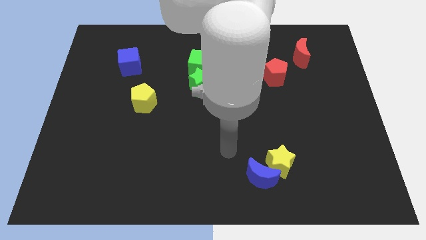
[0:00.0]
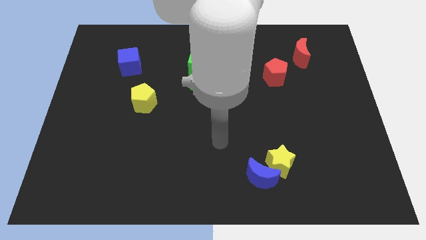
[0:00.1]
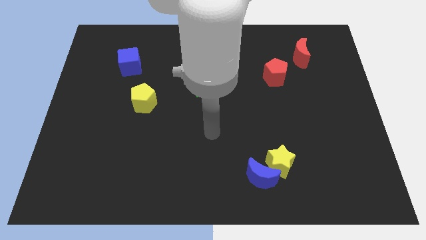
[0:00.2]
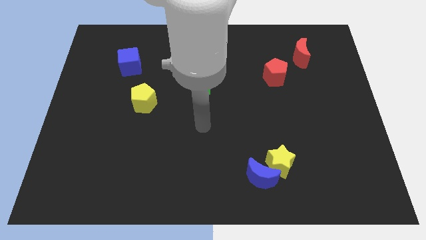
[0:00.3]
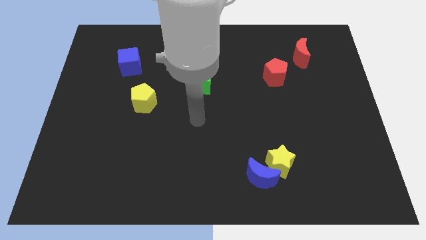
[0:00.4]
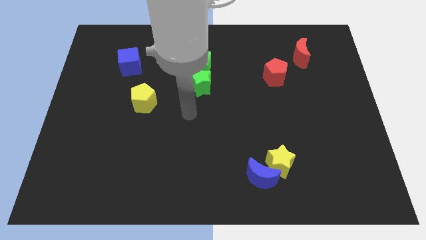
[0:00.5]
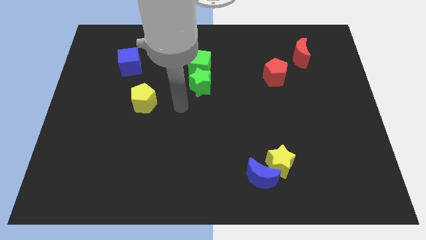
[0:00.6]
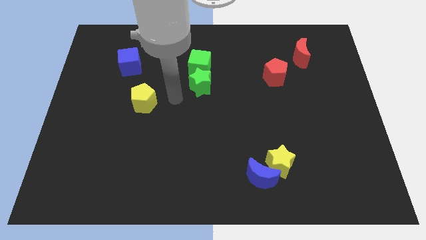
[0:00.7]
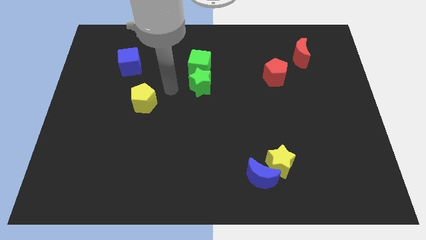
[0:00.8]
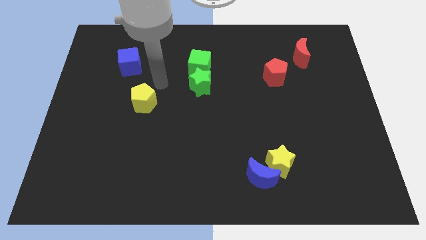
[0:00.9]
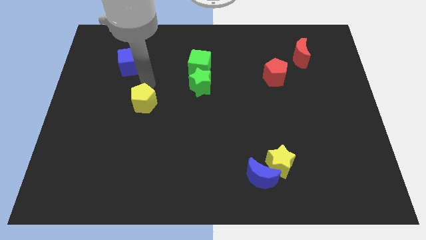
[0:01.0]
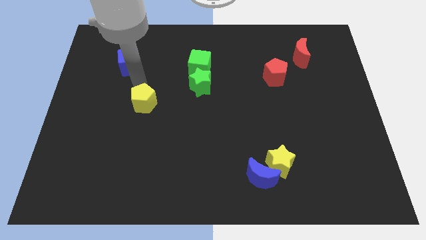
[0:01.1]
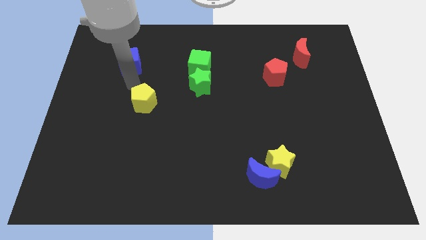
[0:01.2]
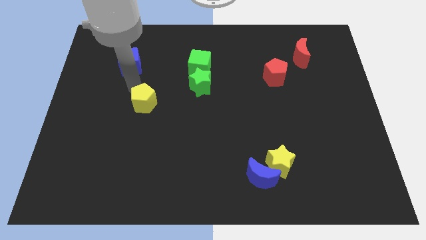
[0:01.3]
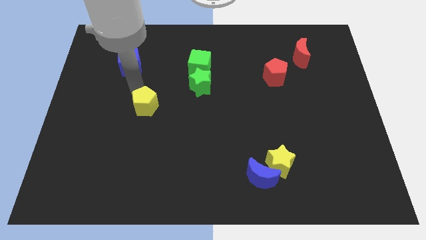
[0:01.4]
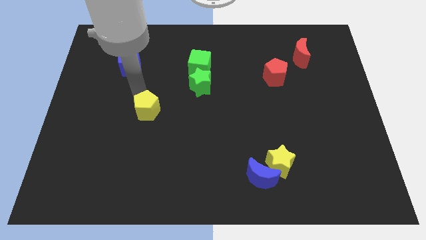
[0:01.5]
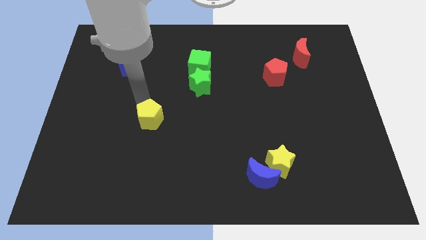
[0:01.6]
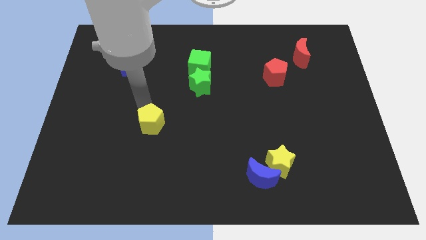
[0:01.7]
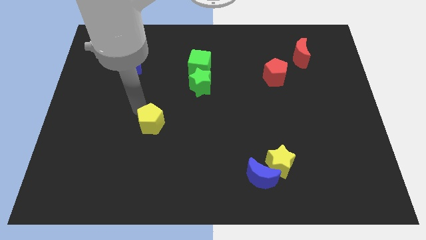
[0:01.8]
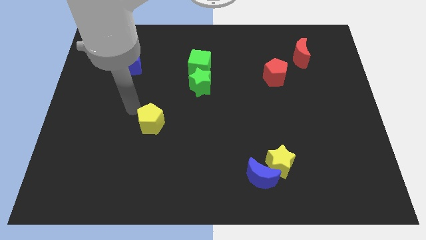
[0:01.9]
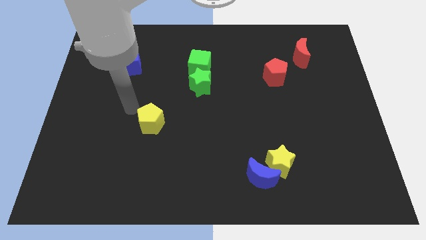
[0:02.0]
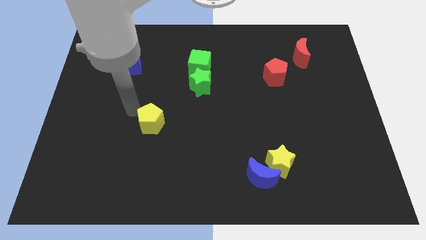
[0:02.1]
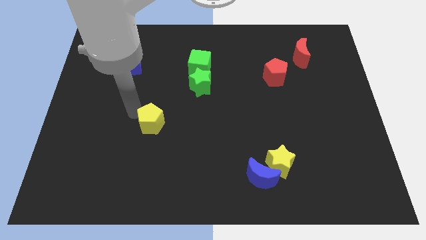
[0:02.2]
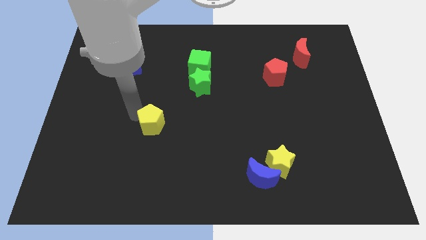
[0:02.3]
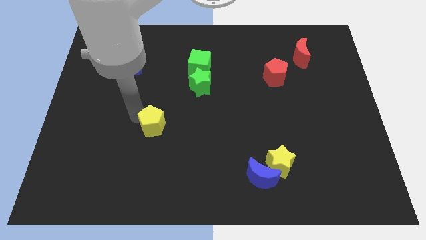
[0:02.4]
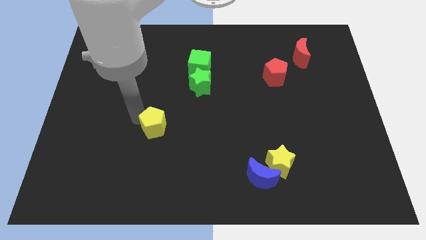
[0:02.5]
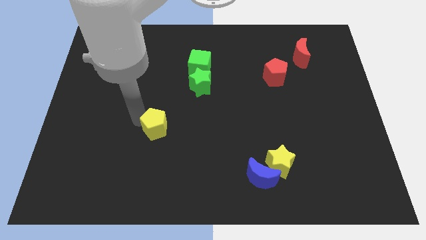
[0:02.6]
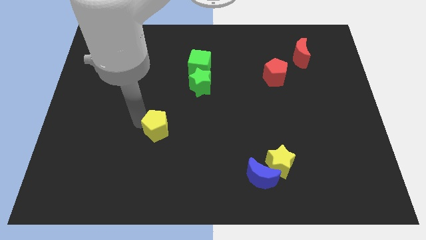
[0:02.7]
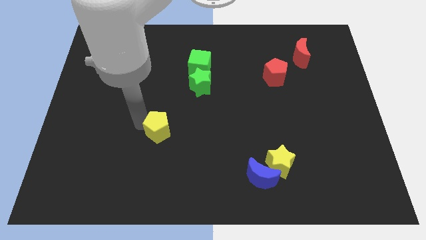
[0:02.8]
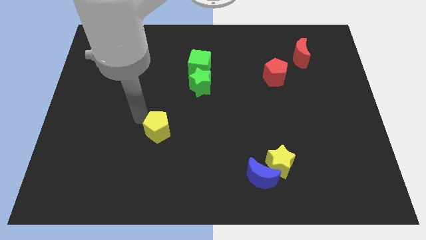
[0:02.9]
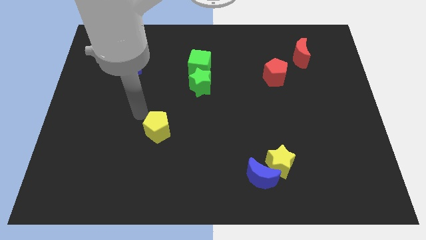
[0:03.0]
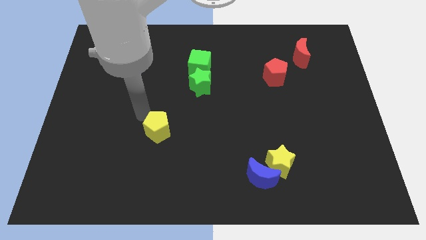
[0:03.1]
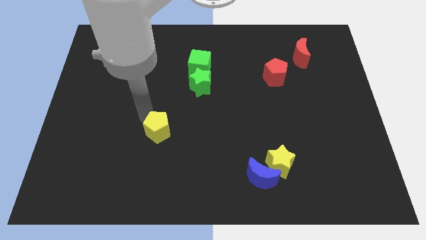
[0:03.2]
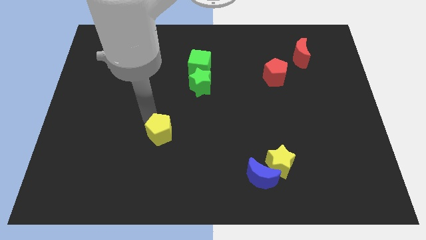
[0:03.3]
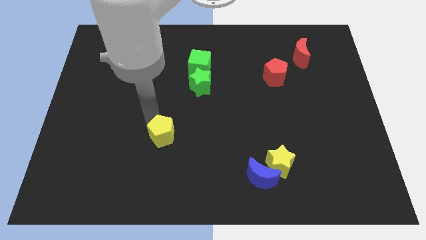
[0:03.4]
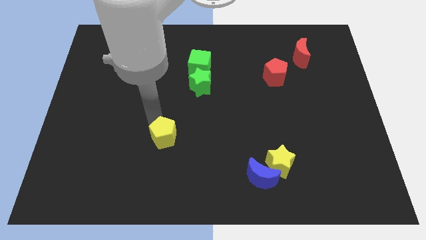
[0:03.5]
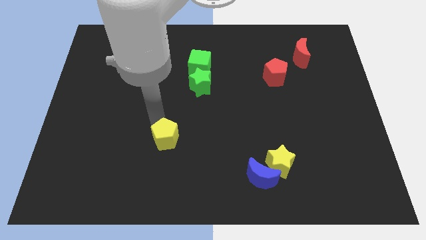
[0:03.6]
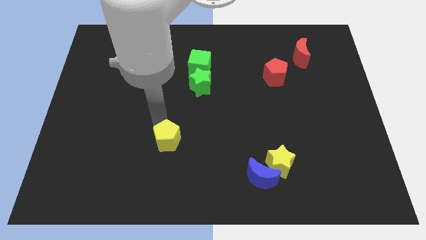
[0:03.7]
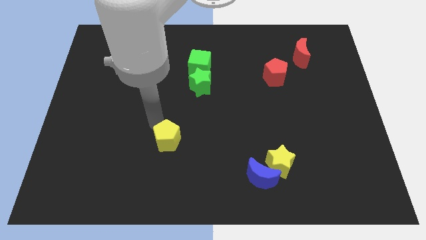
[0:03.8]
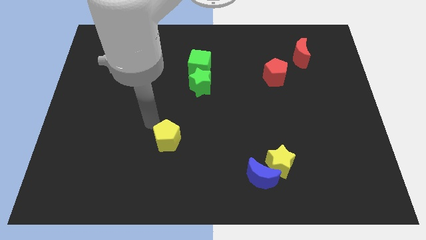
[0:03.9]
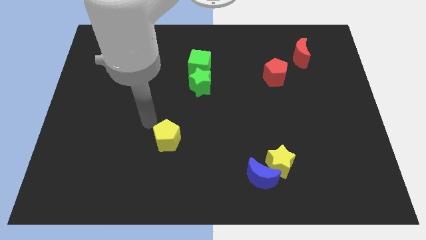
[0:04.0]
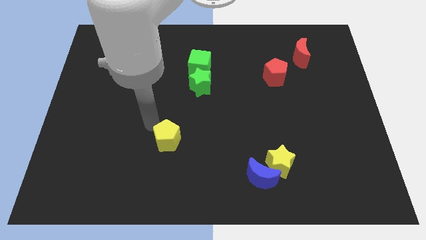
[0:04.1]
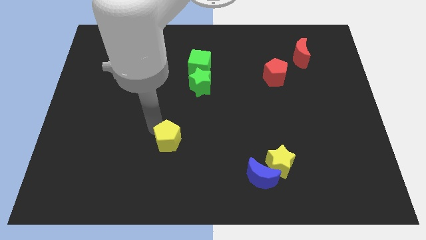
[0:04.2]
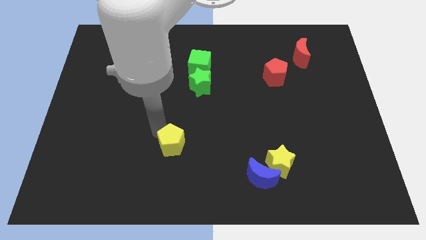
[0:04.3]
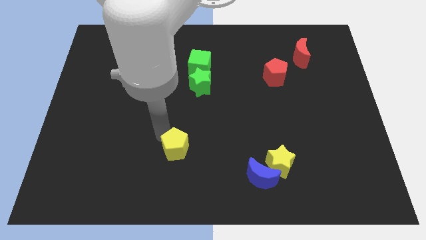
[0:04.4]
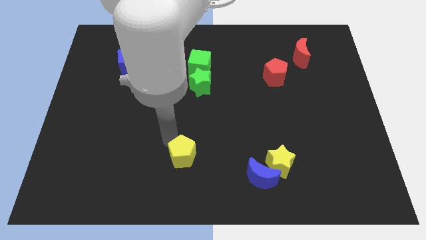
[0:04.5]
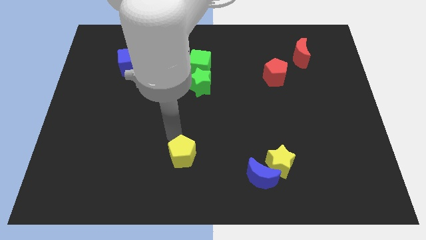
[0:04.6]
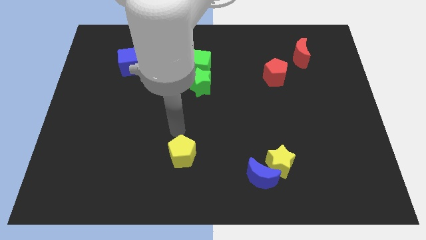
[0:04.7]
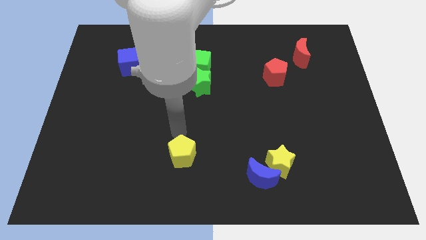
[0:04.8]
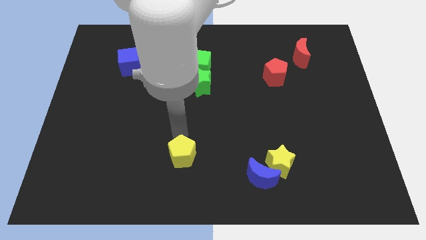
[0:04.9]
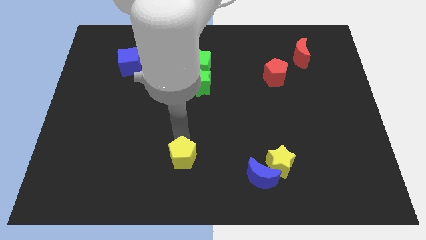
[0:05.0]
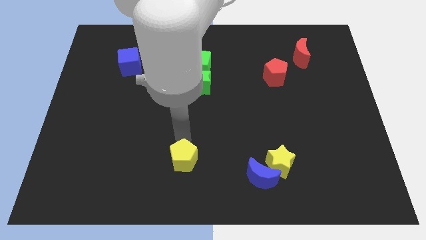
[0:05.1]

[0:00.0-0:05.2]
put the yellow pentagon to the bottom

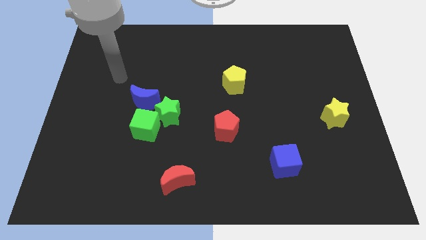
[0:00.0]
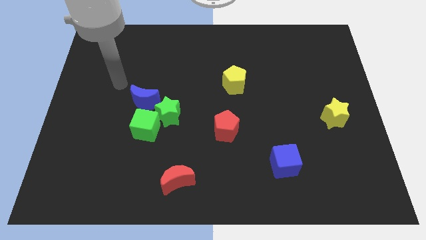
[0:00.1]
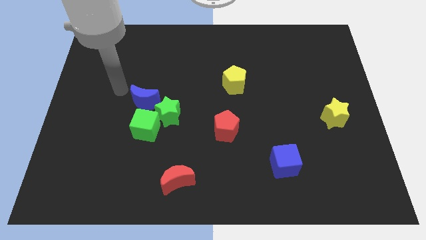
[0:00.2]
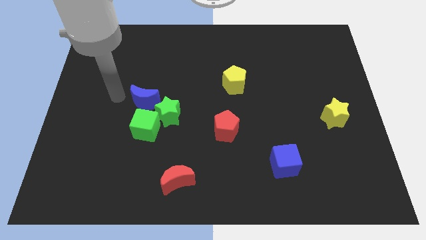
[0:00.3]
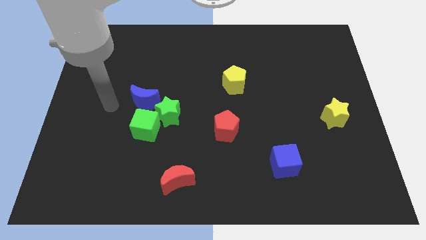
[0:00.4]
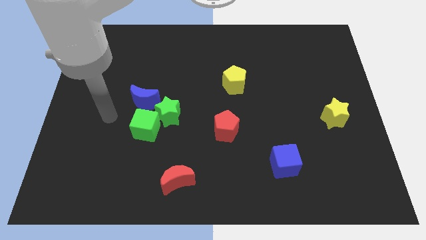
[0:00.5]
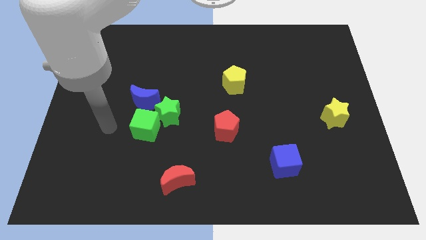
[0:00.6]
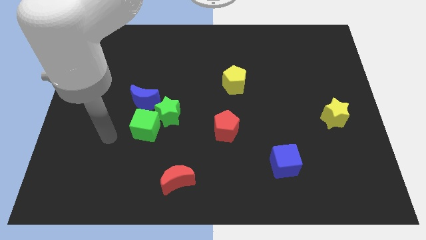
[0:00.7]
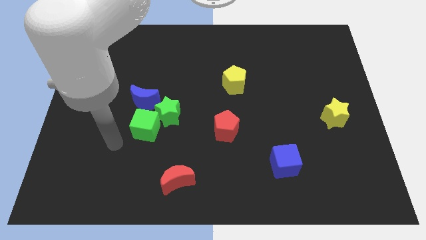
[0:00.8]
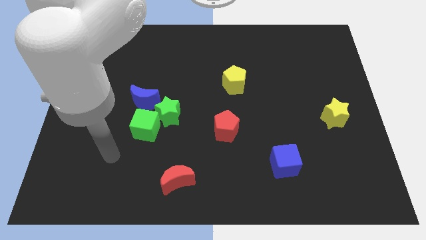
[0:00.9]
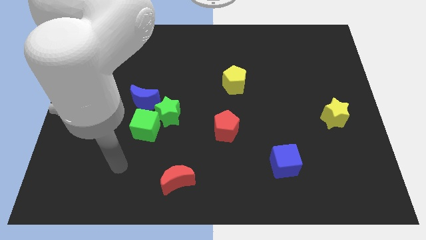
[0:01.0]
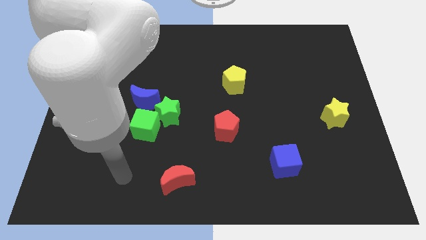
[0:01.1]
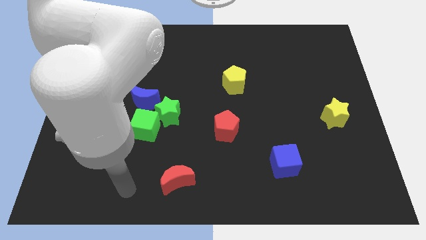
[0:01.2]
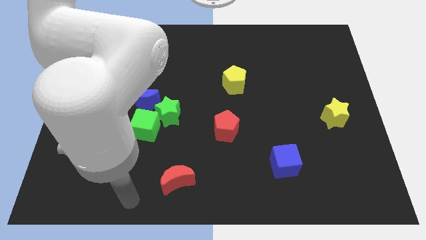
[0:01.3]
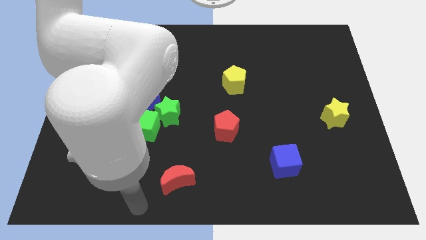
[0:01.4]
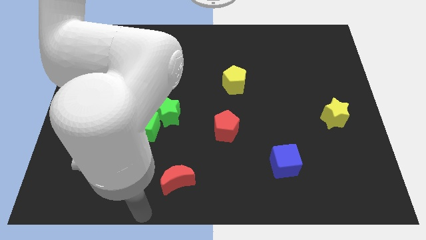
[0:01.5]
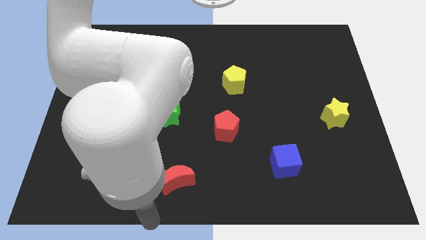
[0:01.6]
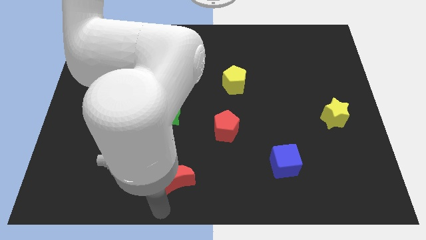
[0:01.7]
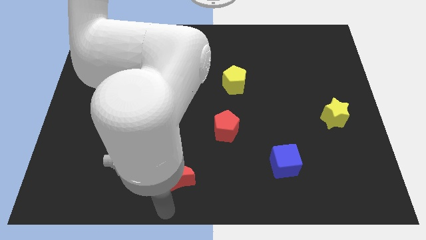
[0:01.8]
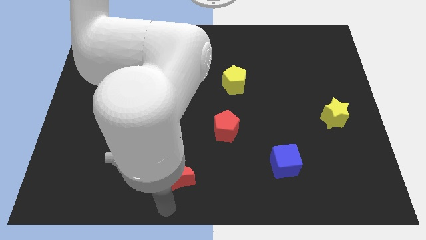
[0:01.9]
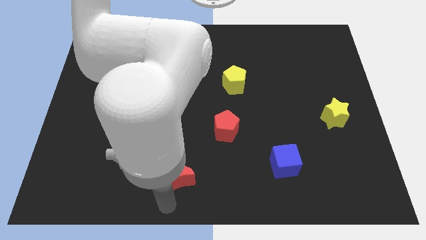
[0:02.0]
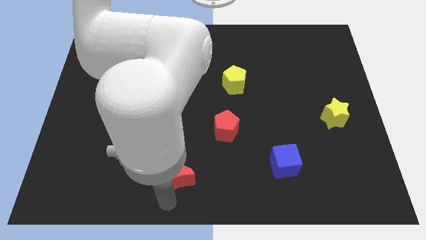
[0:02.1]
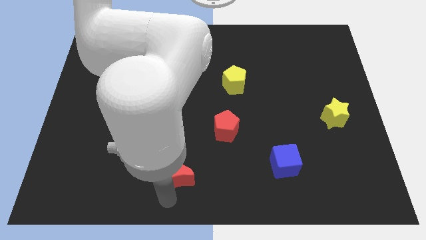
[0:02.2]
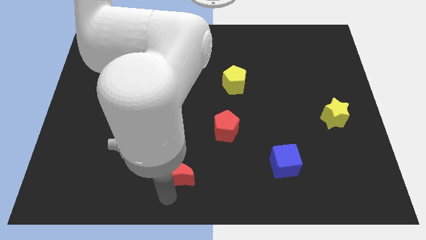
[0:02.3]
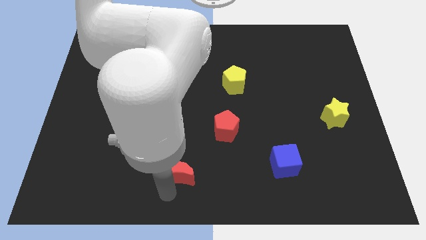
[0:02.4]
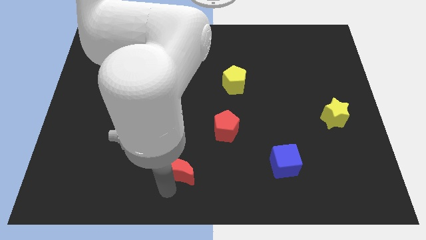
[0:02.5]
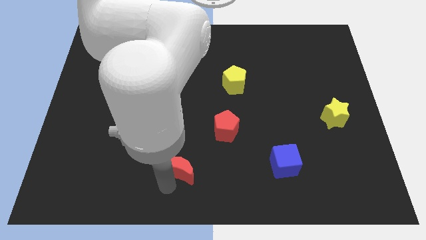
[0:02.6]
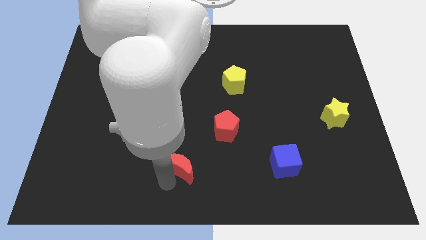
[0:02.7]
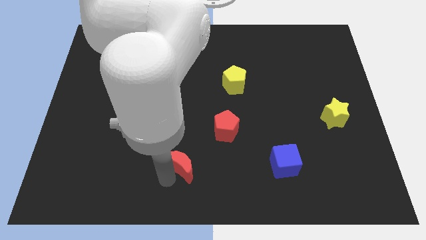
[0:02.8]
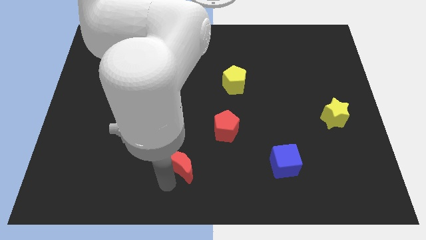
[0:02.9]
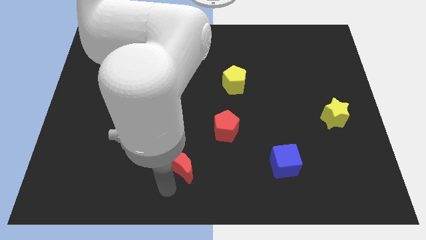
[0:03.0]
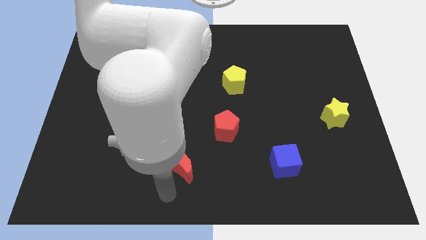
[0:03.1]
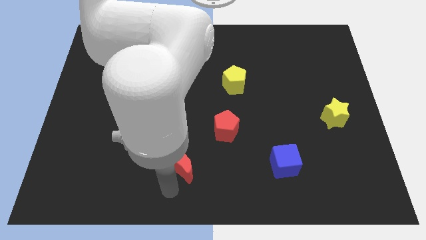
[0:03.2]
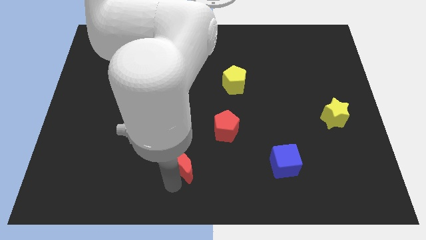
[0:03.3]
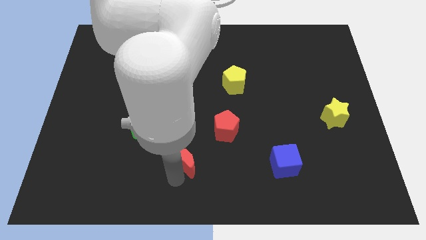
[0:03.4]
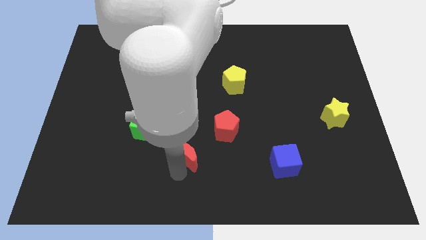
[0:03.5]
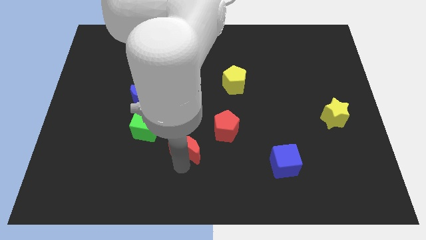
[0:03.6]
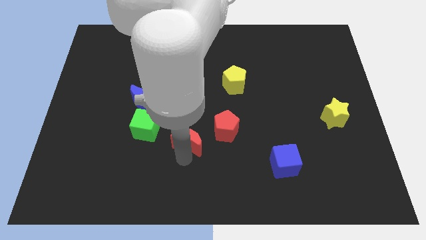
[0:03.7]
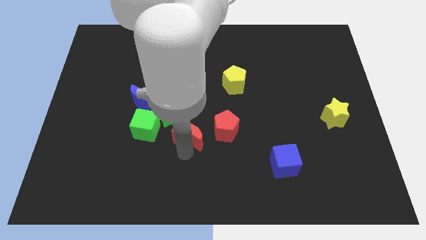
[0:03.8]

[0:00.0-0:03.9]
push the red moon to the middle
